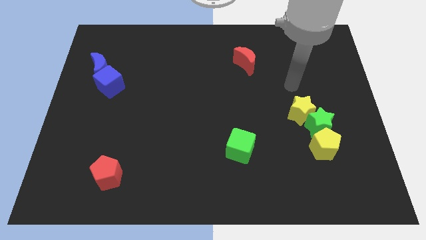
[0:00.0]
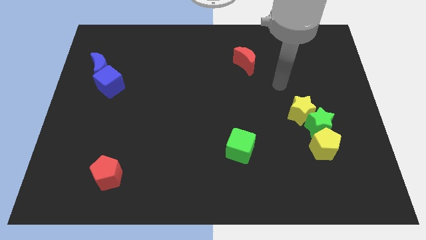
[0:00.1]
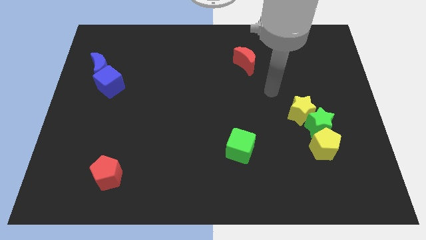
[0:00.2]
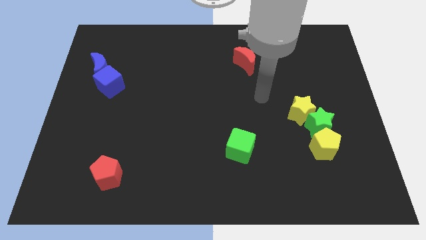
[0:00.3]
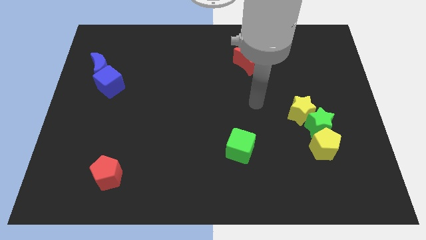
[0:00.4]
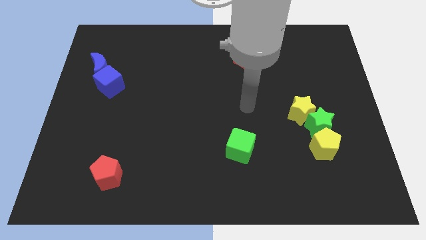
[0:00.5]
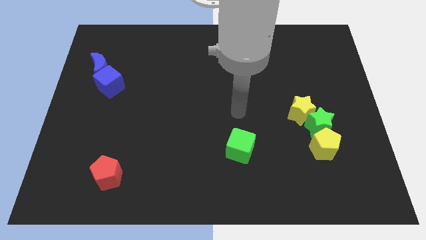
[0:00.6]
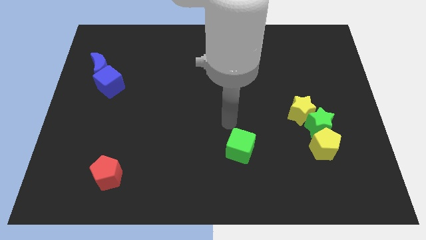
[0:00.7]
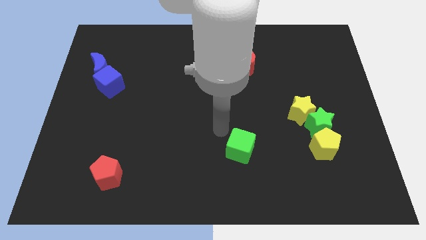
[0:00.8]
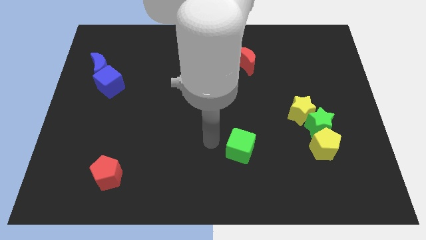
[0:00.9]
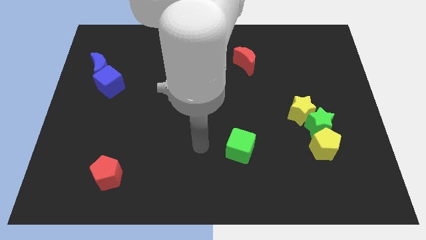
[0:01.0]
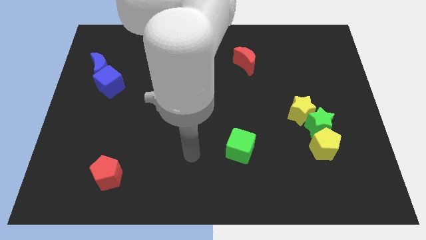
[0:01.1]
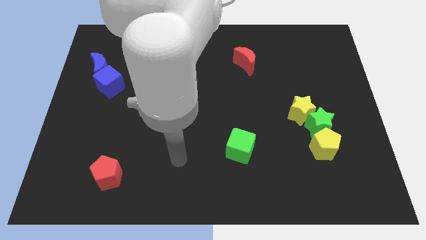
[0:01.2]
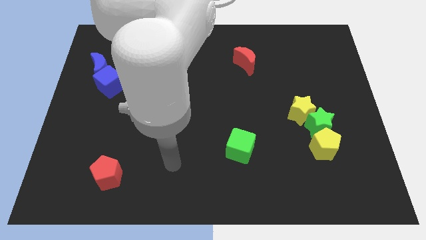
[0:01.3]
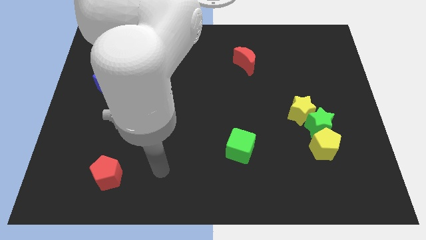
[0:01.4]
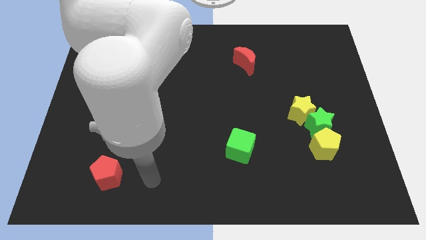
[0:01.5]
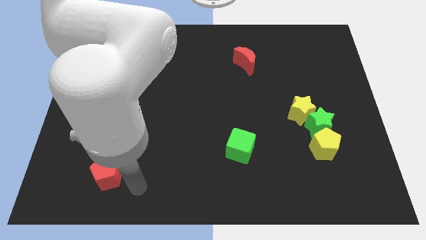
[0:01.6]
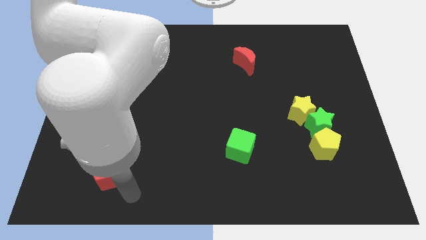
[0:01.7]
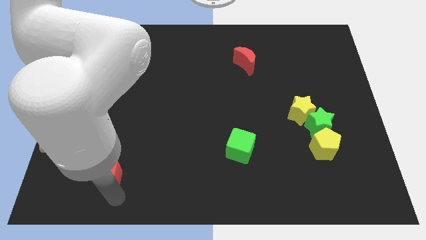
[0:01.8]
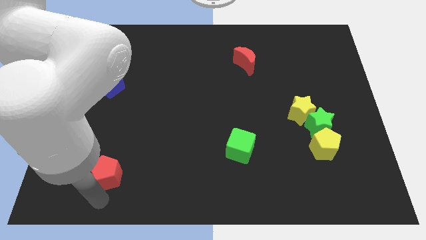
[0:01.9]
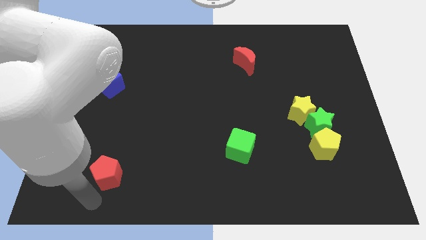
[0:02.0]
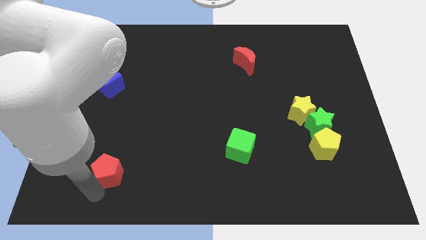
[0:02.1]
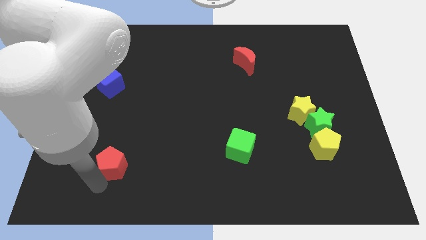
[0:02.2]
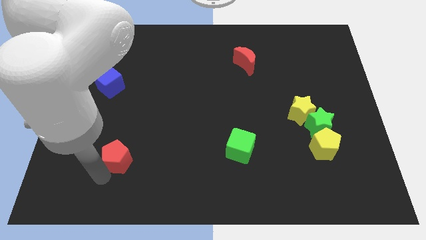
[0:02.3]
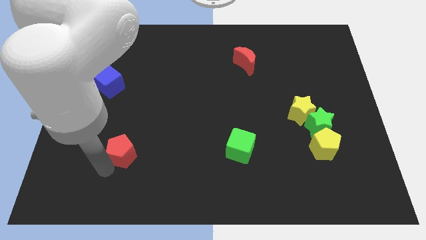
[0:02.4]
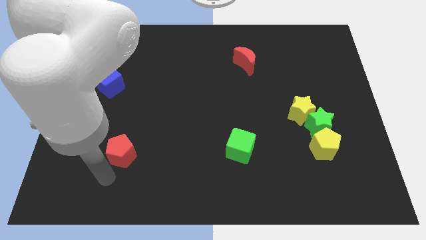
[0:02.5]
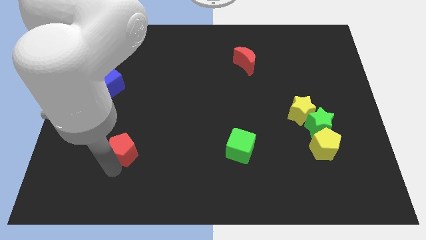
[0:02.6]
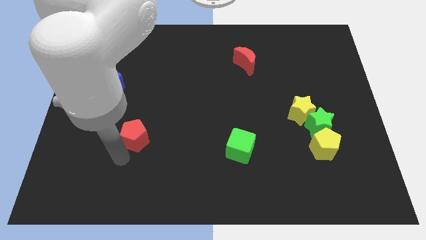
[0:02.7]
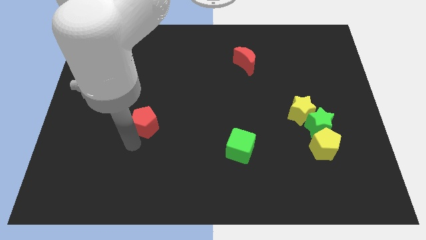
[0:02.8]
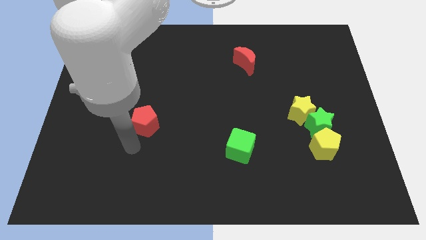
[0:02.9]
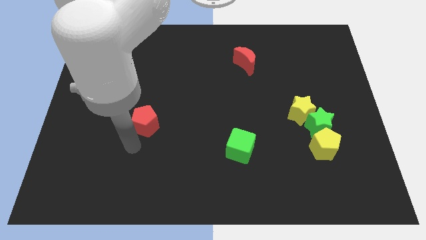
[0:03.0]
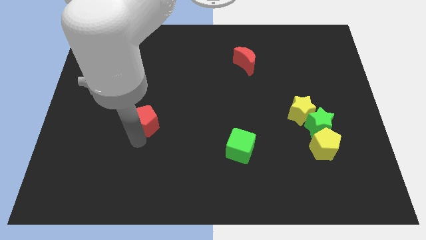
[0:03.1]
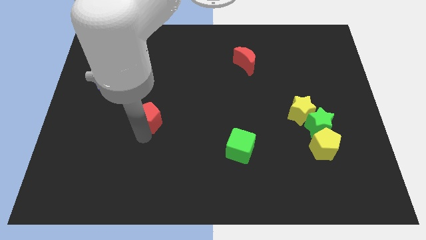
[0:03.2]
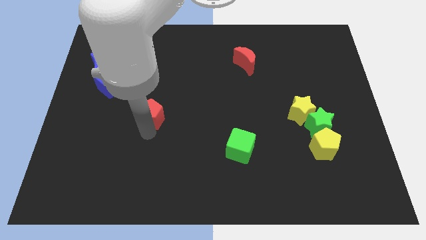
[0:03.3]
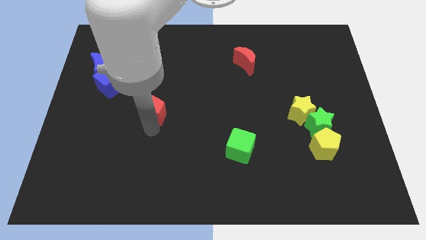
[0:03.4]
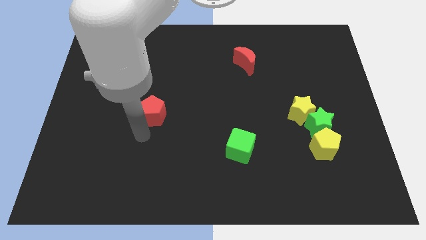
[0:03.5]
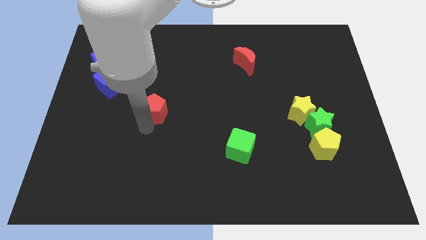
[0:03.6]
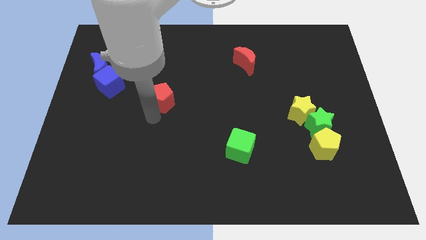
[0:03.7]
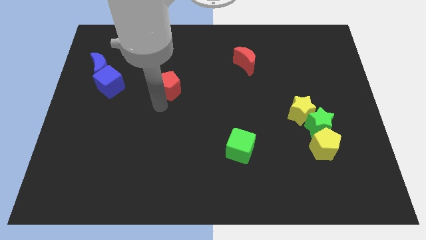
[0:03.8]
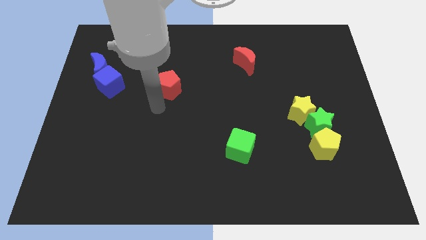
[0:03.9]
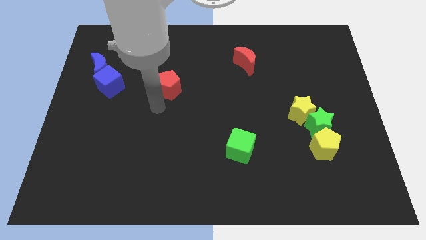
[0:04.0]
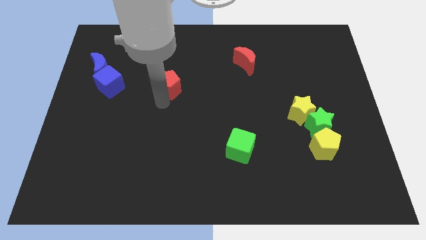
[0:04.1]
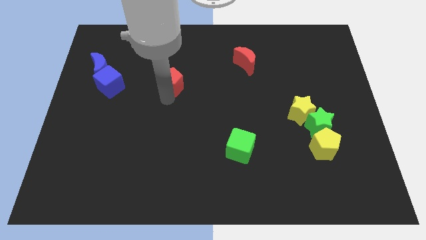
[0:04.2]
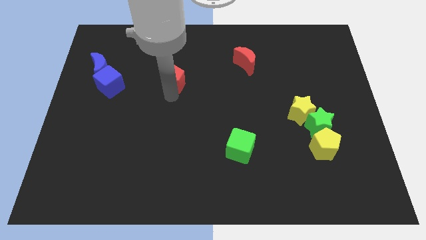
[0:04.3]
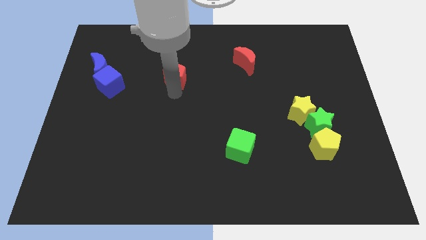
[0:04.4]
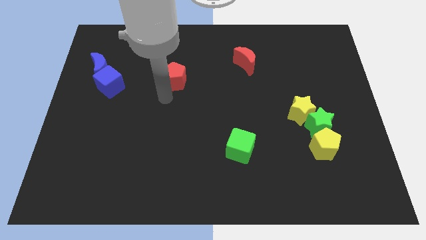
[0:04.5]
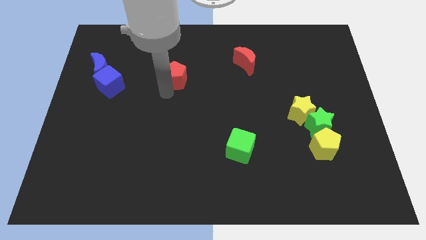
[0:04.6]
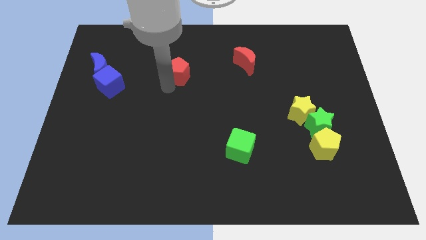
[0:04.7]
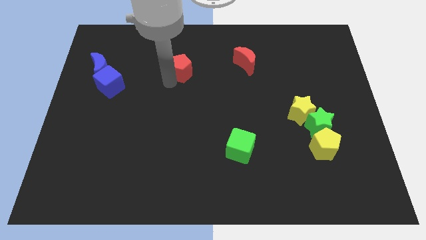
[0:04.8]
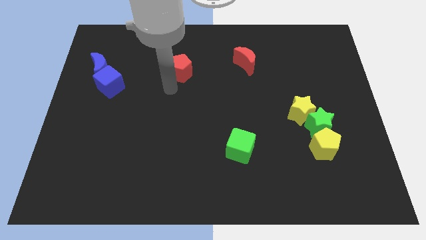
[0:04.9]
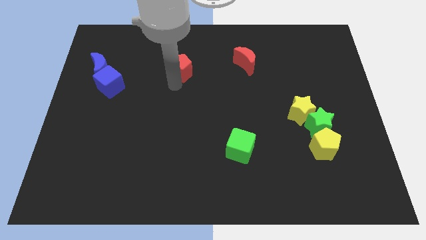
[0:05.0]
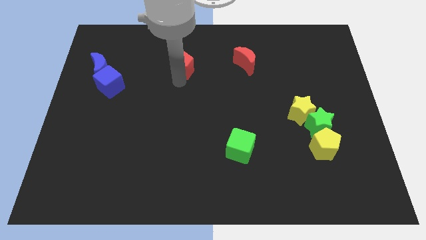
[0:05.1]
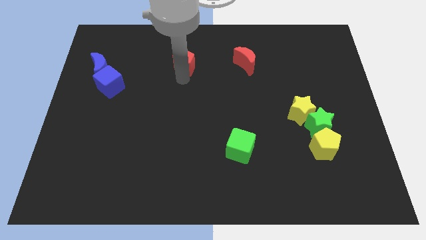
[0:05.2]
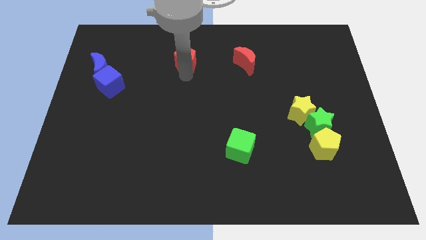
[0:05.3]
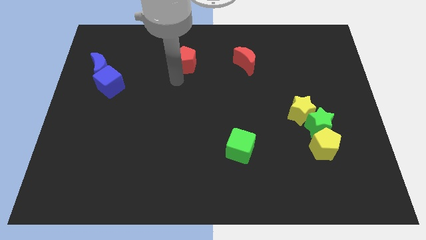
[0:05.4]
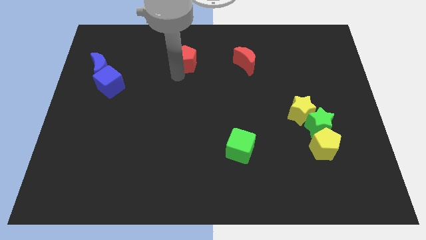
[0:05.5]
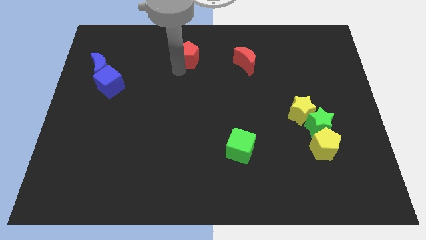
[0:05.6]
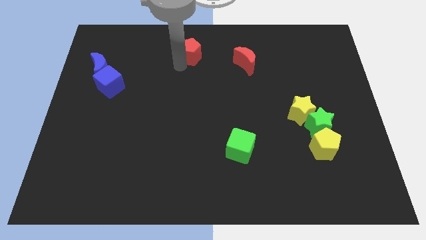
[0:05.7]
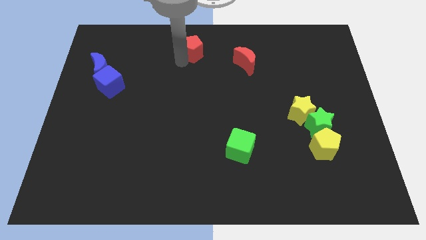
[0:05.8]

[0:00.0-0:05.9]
put the red pentagon to the towards your base

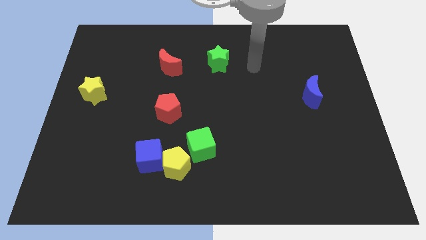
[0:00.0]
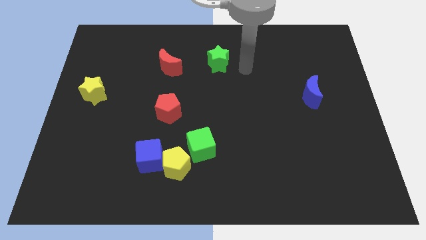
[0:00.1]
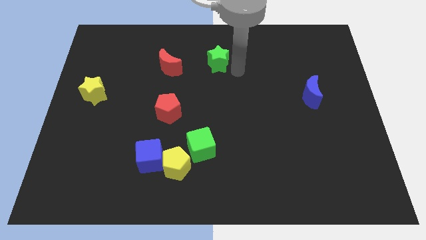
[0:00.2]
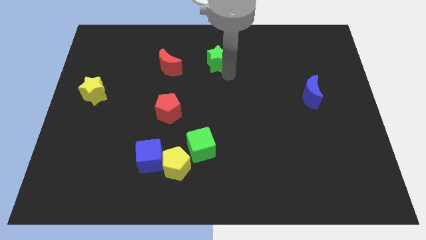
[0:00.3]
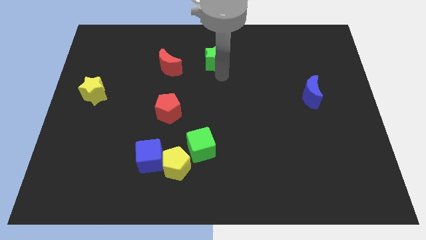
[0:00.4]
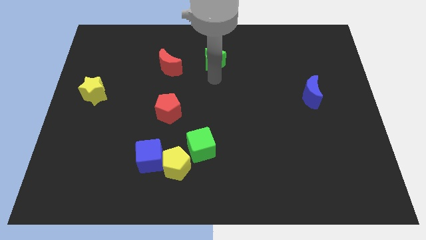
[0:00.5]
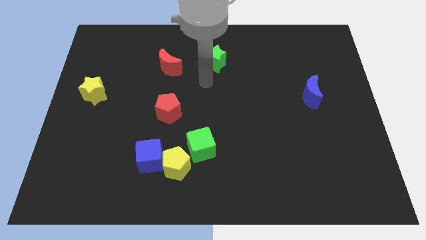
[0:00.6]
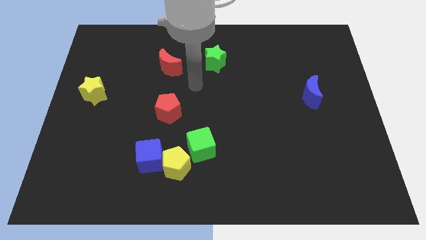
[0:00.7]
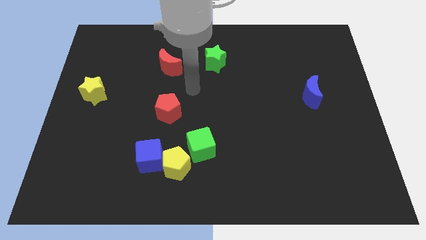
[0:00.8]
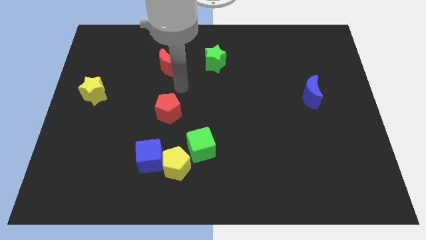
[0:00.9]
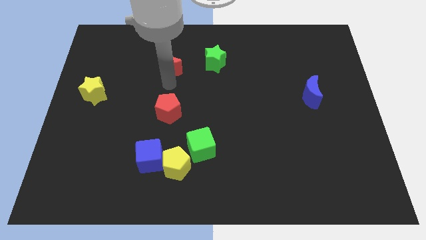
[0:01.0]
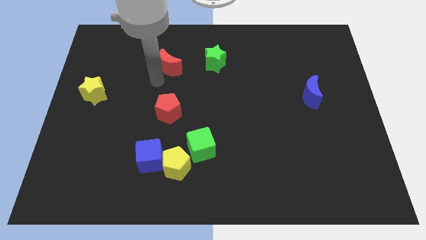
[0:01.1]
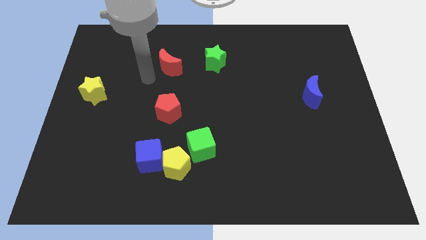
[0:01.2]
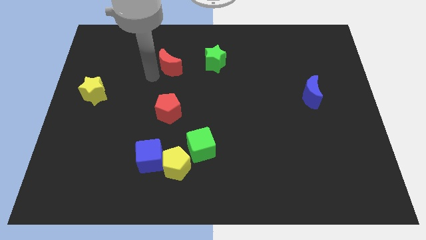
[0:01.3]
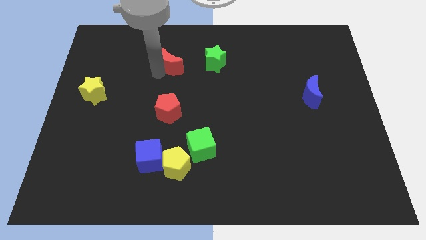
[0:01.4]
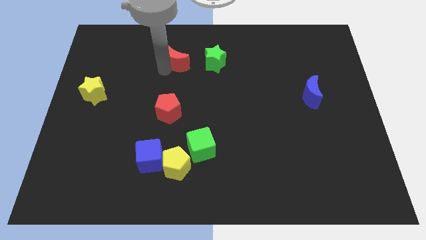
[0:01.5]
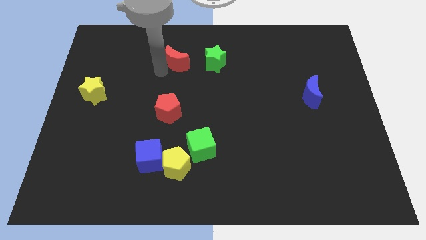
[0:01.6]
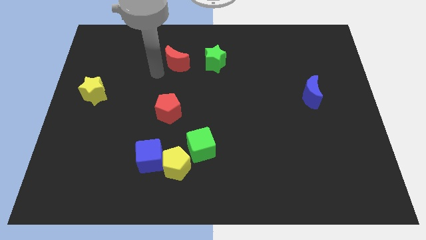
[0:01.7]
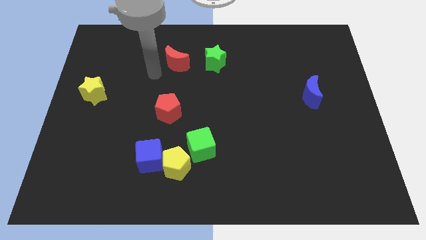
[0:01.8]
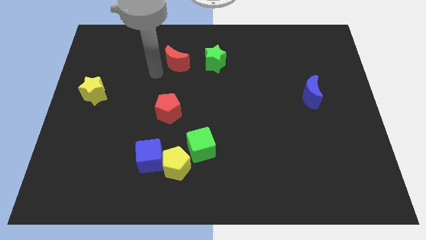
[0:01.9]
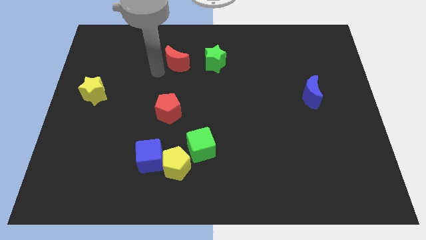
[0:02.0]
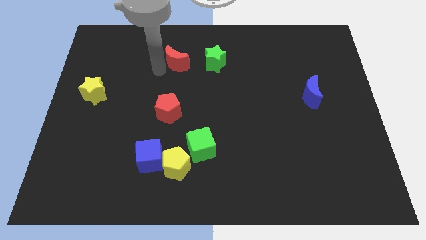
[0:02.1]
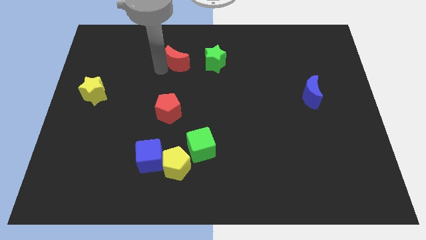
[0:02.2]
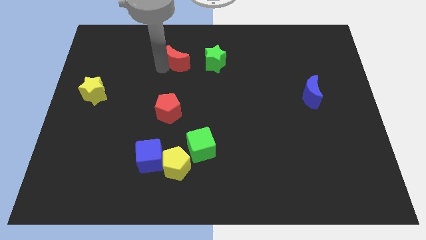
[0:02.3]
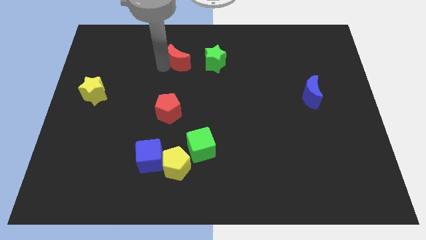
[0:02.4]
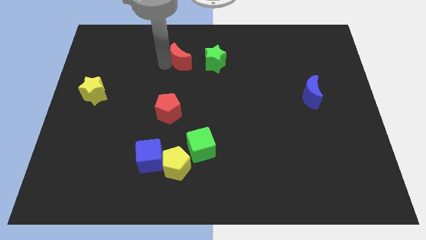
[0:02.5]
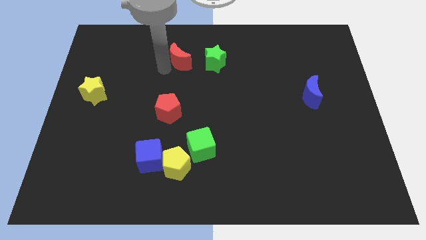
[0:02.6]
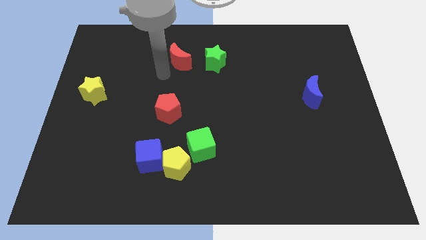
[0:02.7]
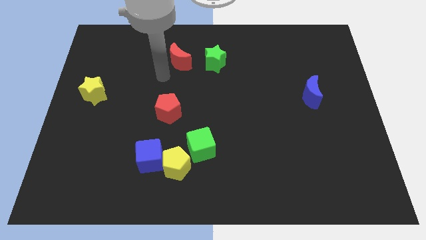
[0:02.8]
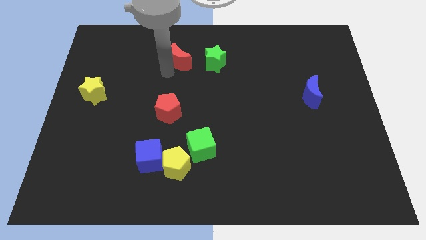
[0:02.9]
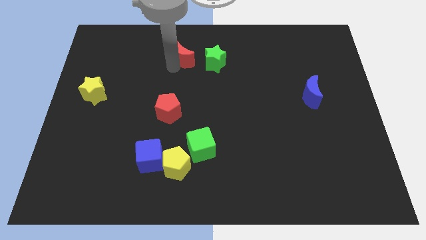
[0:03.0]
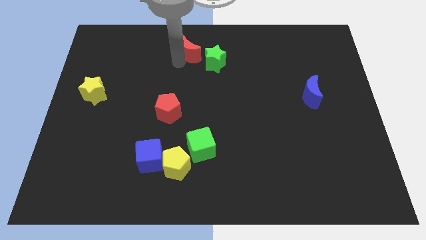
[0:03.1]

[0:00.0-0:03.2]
put the red moon to the top side
